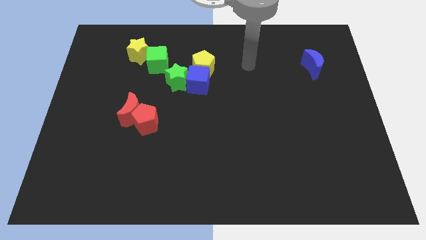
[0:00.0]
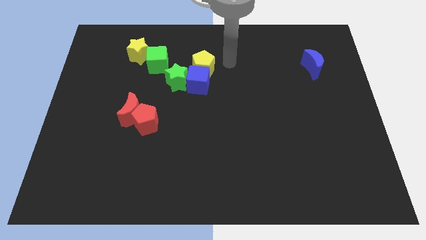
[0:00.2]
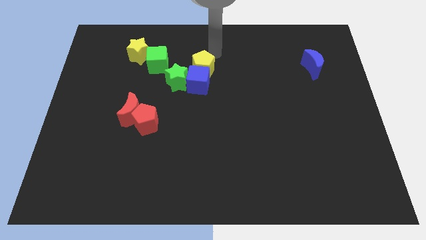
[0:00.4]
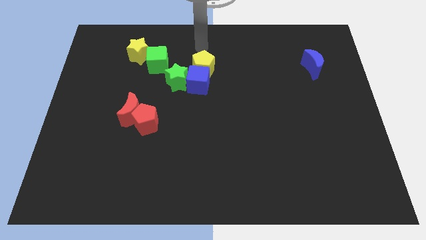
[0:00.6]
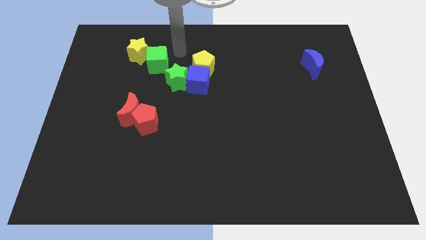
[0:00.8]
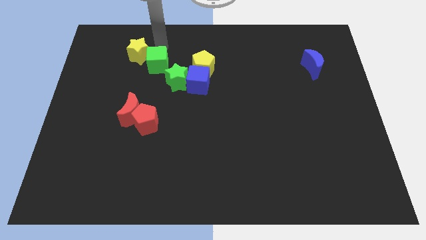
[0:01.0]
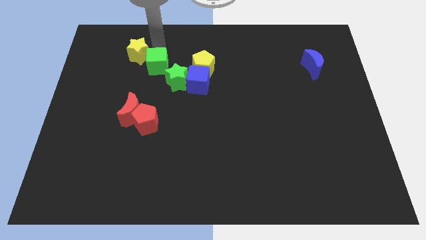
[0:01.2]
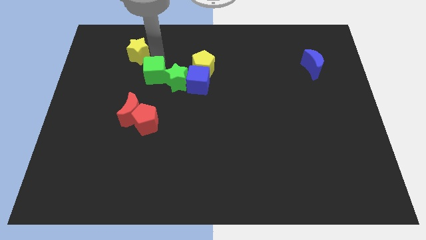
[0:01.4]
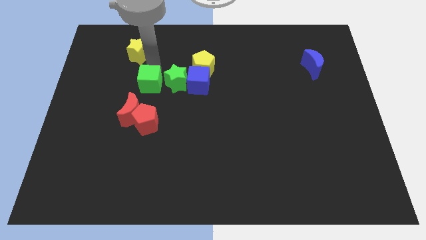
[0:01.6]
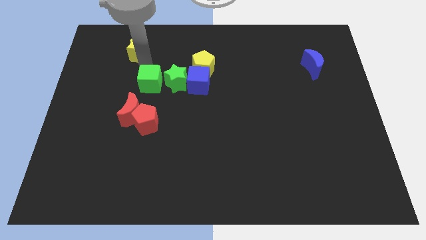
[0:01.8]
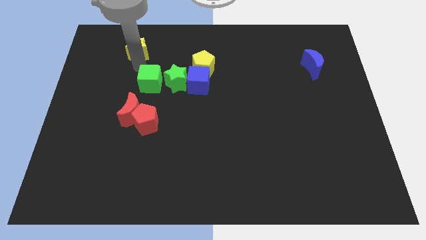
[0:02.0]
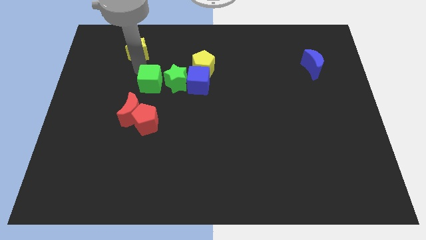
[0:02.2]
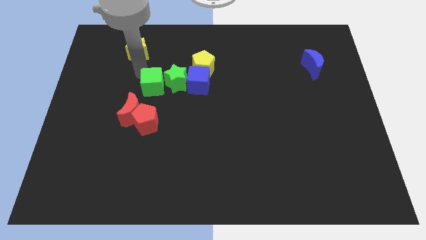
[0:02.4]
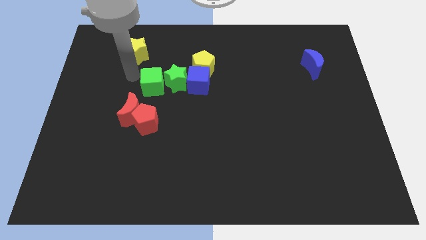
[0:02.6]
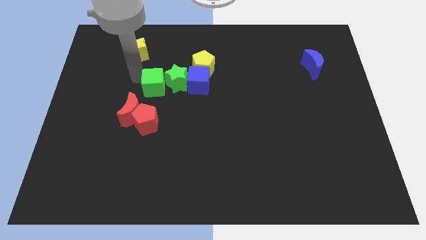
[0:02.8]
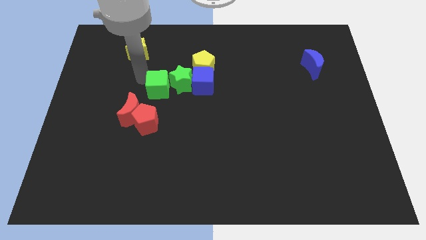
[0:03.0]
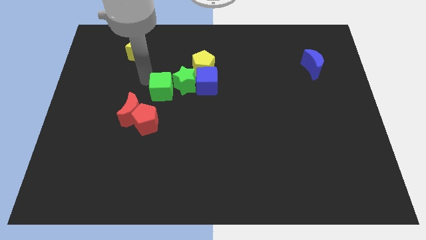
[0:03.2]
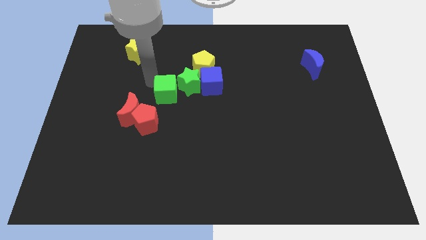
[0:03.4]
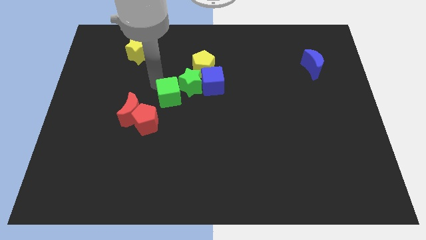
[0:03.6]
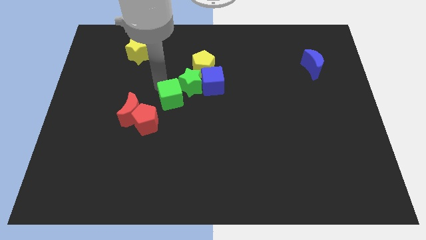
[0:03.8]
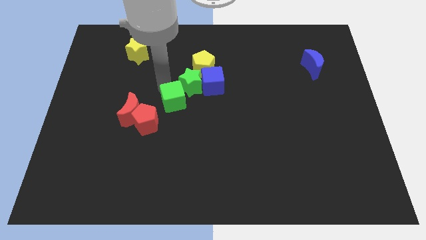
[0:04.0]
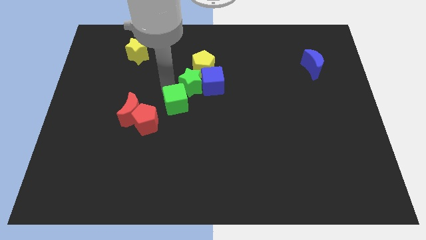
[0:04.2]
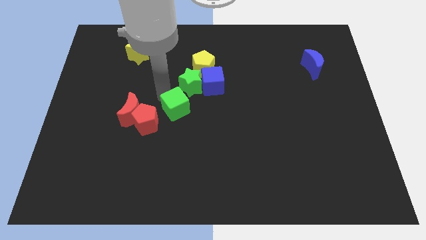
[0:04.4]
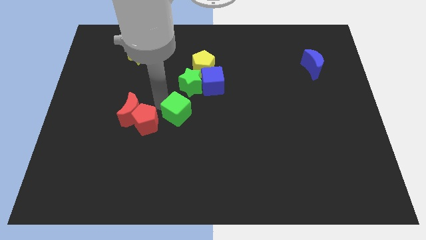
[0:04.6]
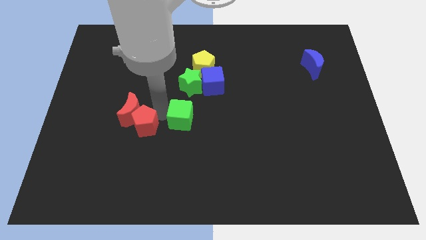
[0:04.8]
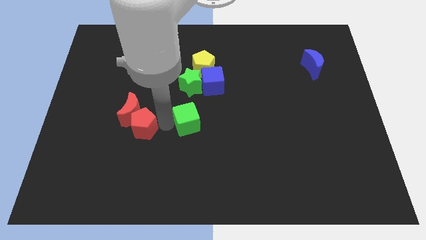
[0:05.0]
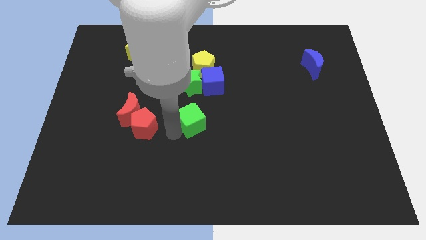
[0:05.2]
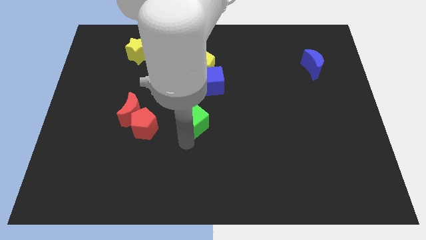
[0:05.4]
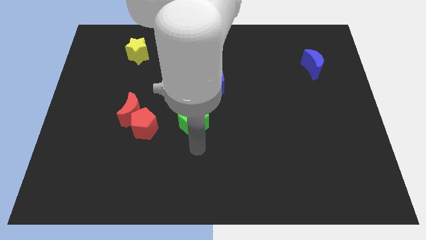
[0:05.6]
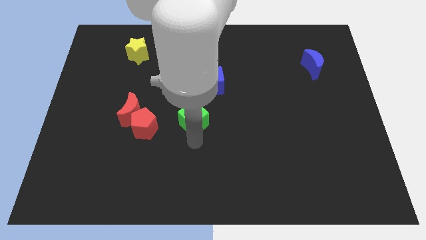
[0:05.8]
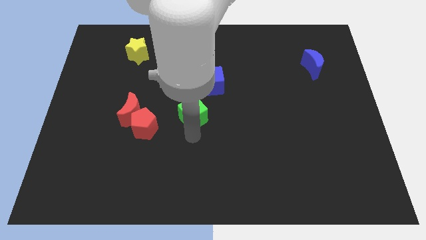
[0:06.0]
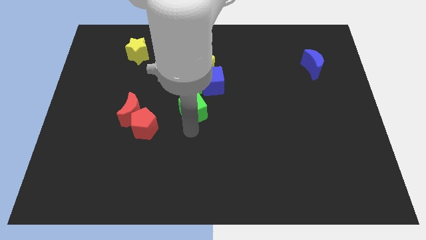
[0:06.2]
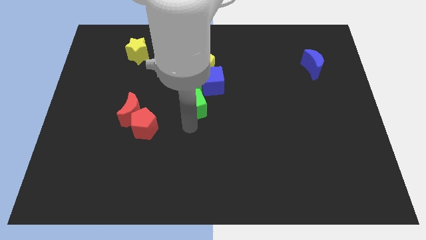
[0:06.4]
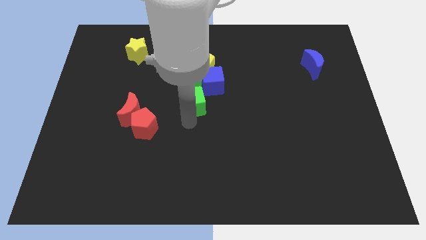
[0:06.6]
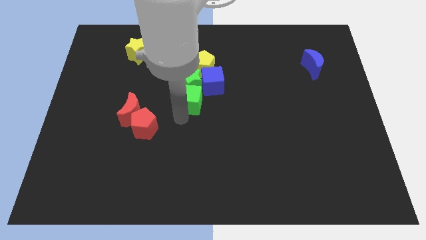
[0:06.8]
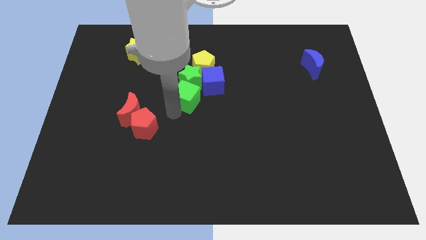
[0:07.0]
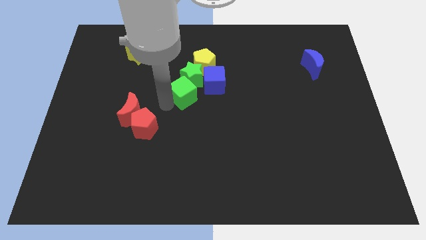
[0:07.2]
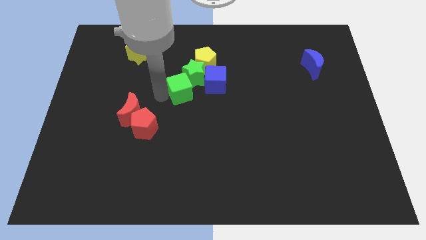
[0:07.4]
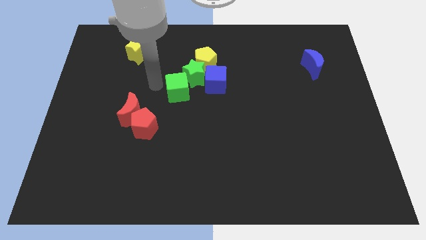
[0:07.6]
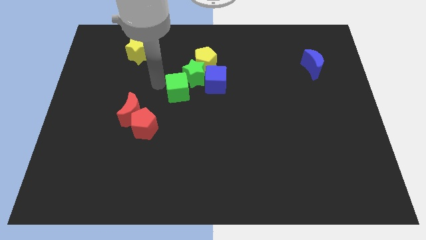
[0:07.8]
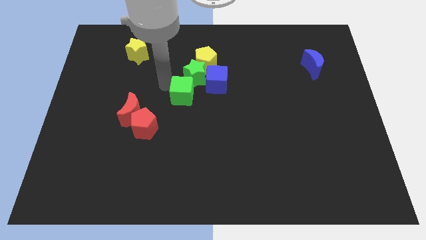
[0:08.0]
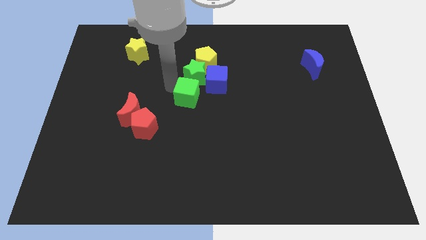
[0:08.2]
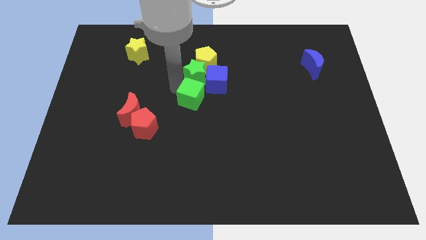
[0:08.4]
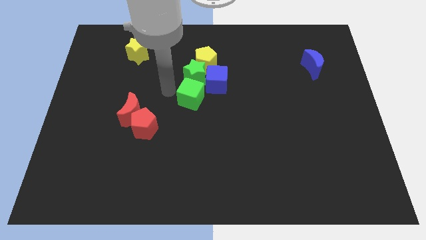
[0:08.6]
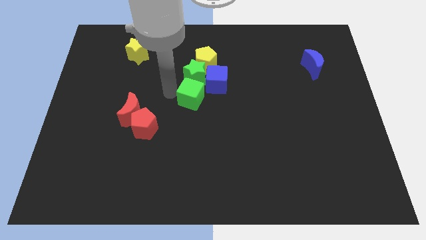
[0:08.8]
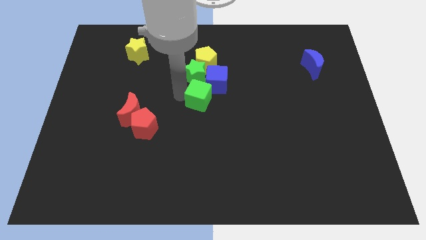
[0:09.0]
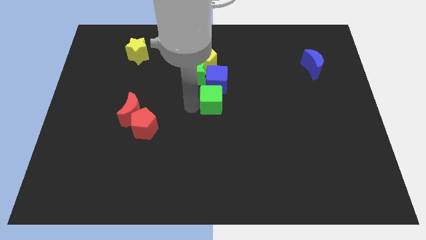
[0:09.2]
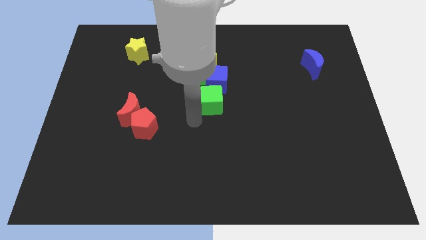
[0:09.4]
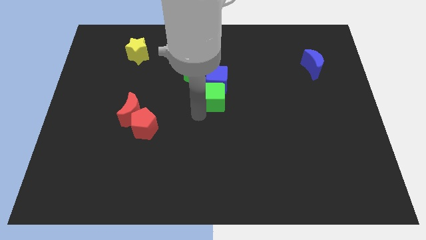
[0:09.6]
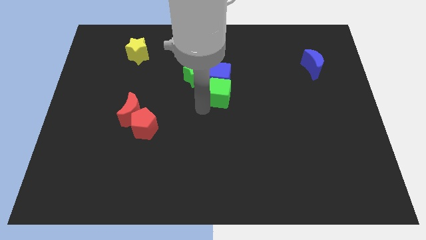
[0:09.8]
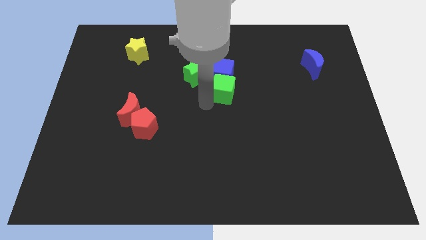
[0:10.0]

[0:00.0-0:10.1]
slide the green cube to the right of the green star

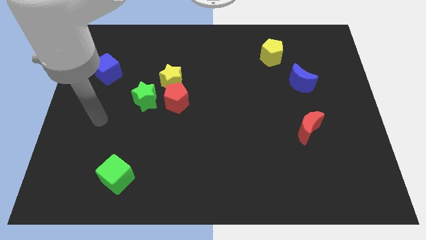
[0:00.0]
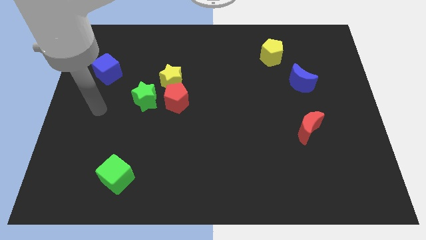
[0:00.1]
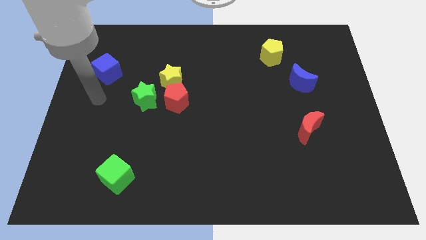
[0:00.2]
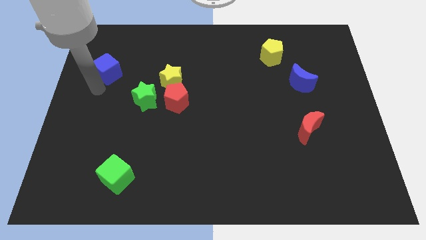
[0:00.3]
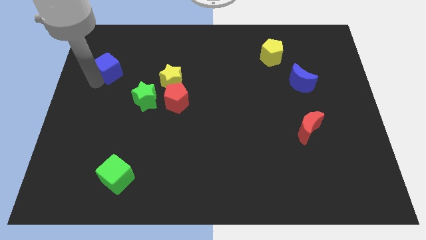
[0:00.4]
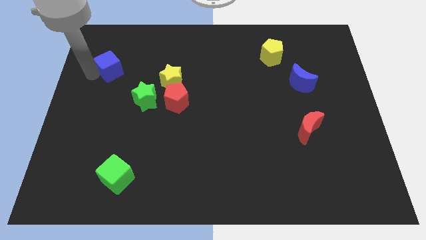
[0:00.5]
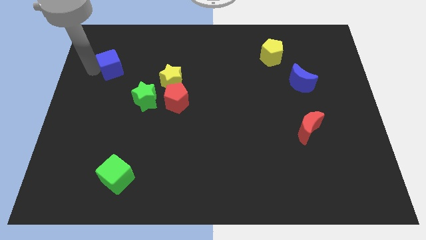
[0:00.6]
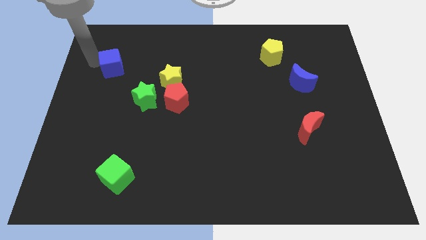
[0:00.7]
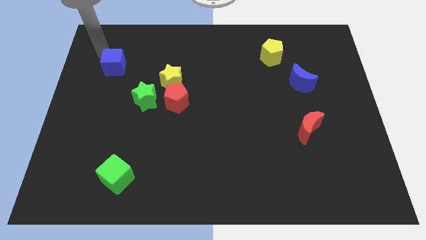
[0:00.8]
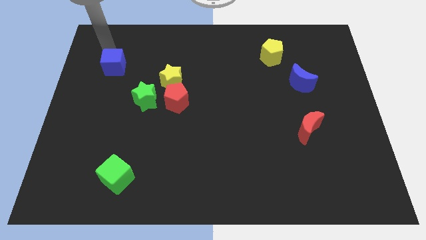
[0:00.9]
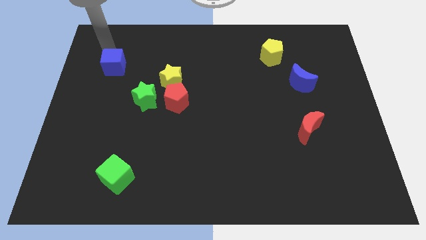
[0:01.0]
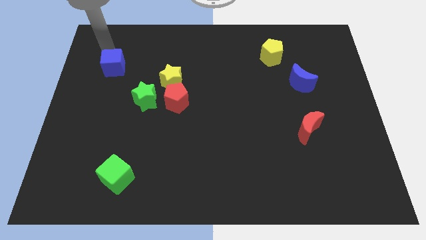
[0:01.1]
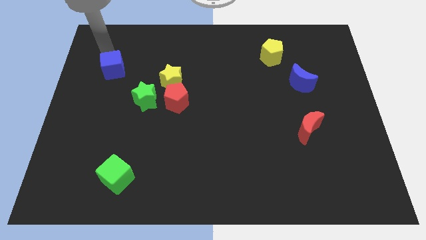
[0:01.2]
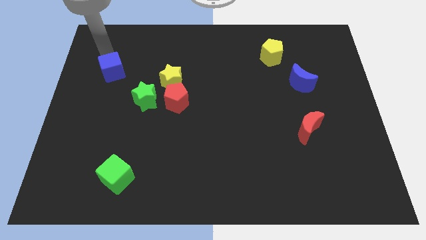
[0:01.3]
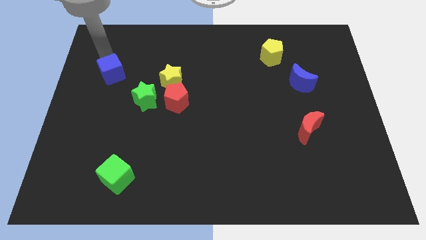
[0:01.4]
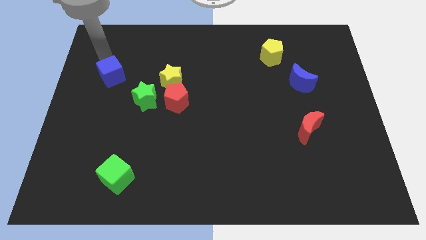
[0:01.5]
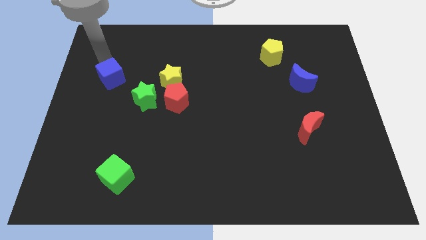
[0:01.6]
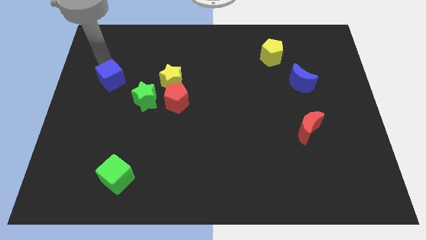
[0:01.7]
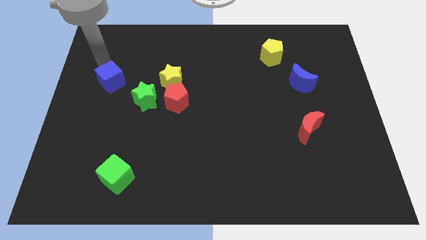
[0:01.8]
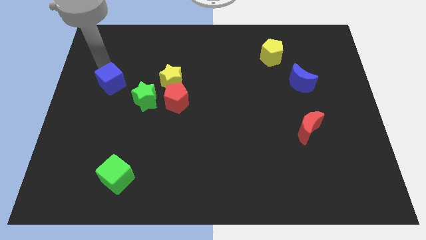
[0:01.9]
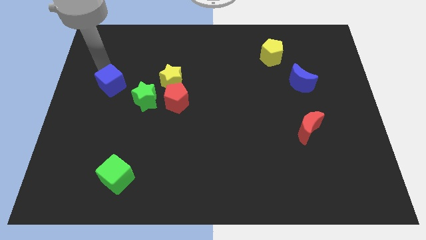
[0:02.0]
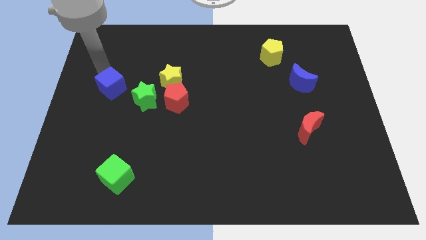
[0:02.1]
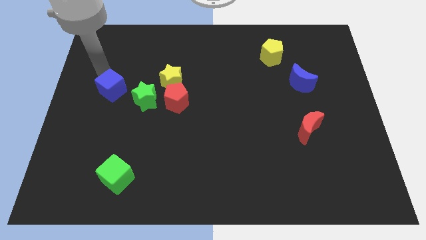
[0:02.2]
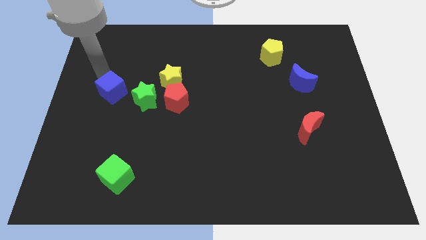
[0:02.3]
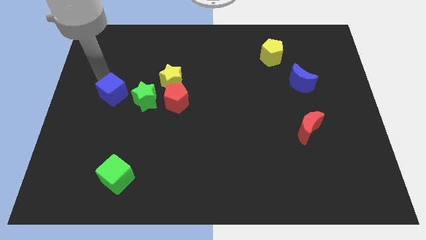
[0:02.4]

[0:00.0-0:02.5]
put the blue cube left of the red pentagon

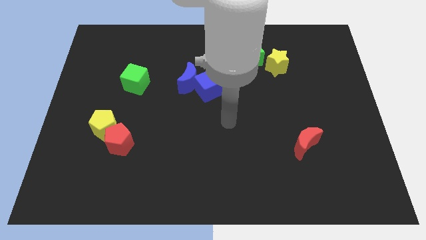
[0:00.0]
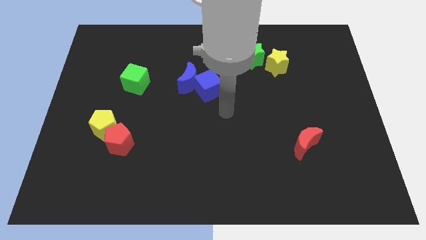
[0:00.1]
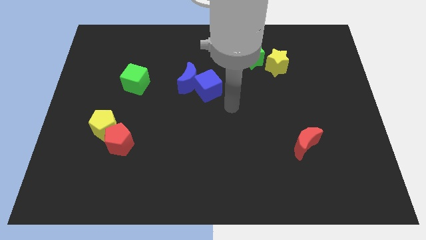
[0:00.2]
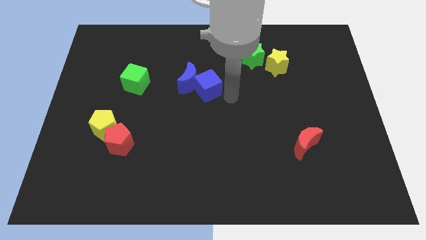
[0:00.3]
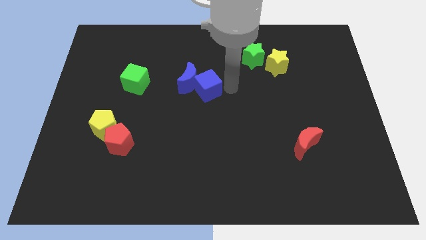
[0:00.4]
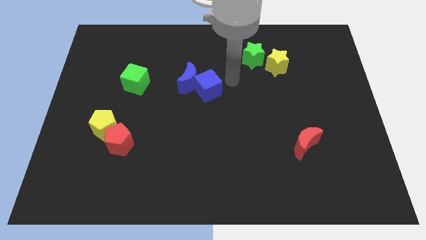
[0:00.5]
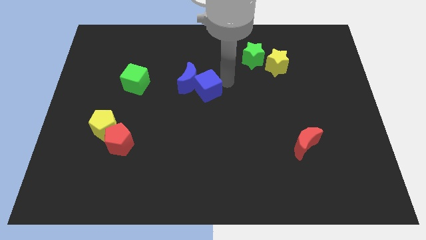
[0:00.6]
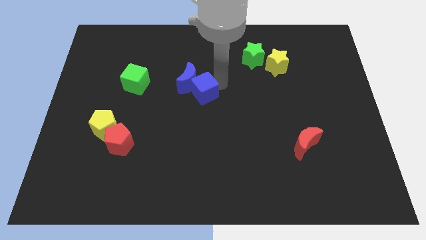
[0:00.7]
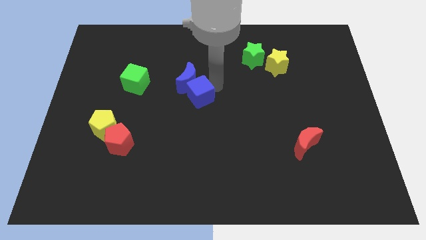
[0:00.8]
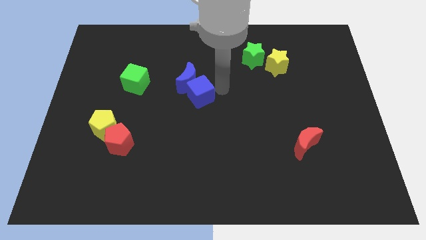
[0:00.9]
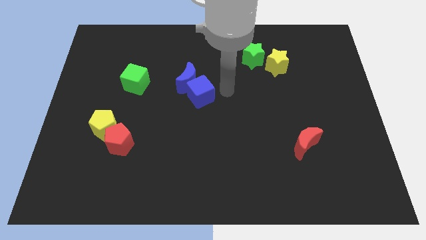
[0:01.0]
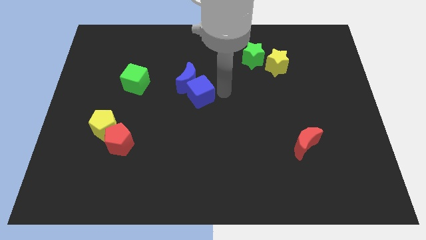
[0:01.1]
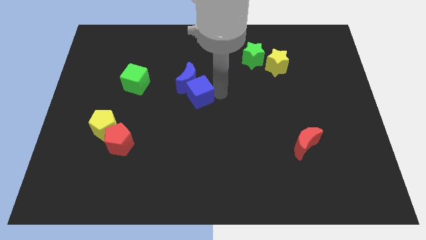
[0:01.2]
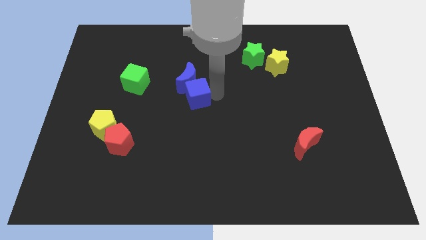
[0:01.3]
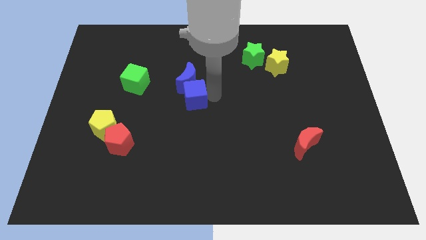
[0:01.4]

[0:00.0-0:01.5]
move the blue cube to the bottom left side of the blue moon
